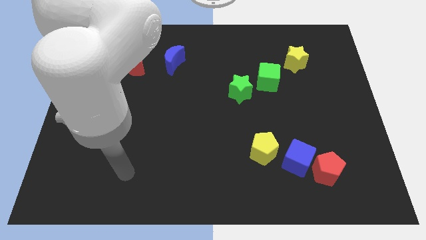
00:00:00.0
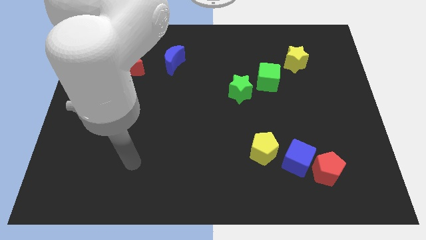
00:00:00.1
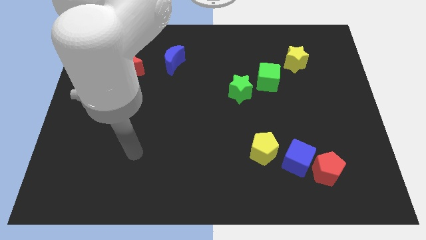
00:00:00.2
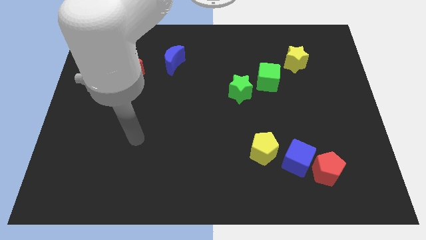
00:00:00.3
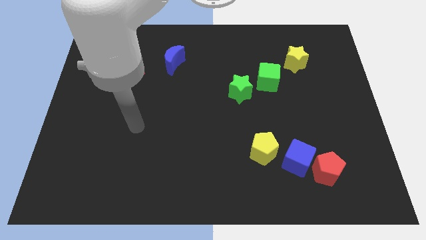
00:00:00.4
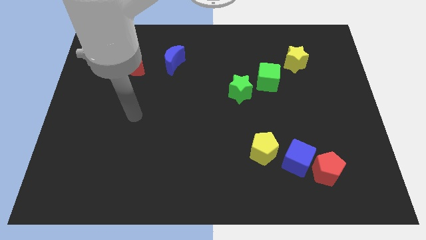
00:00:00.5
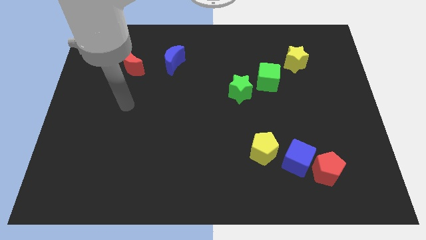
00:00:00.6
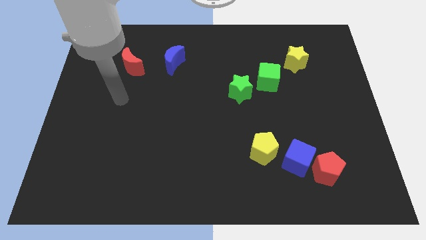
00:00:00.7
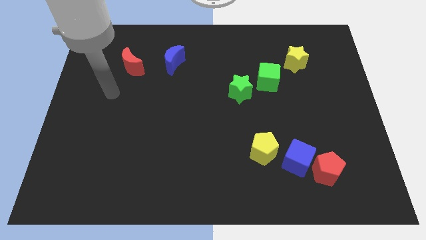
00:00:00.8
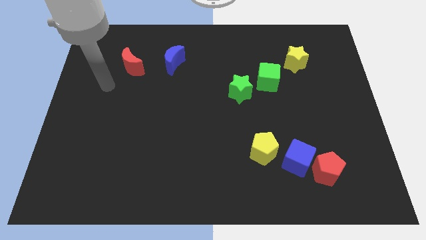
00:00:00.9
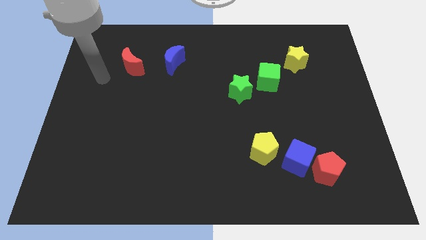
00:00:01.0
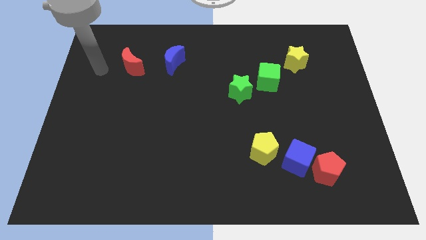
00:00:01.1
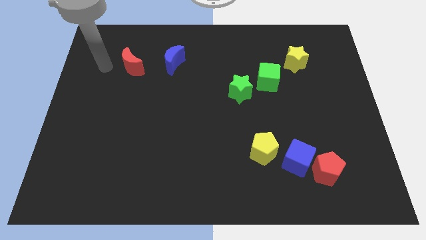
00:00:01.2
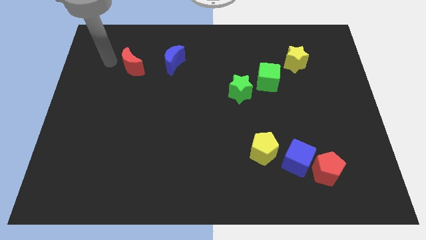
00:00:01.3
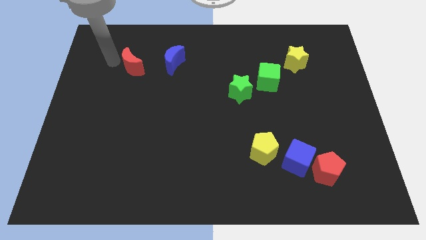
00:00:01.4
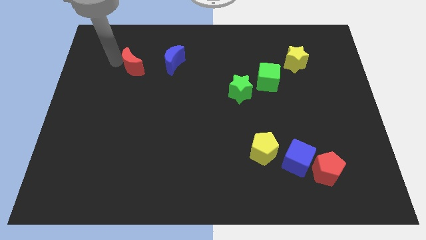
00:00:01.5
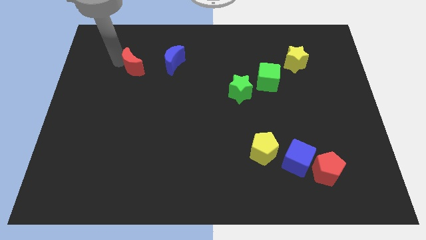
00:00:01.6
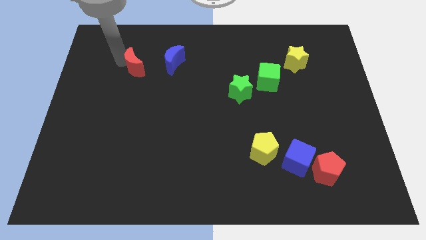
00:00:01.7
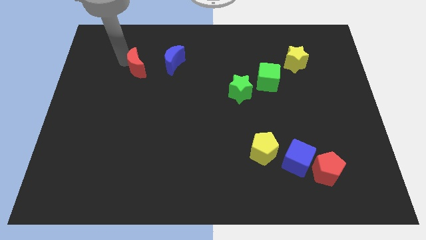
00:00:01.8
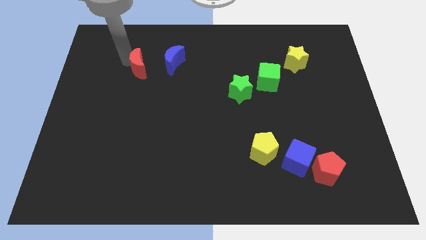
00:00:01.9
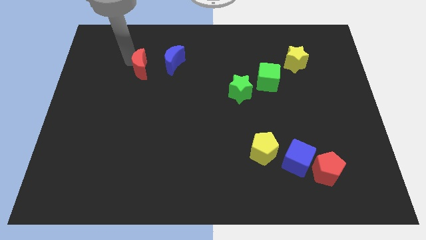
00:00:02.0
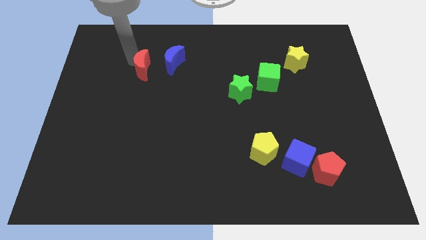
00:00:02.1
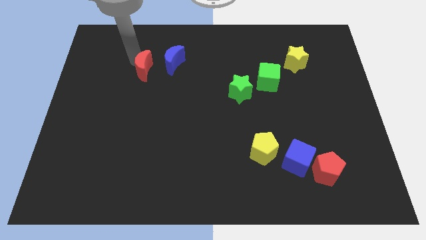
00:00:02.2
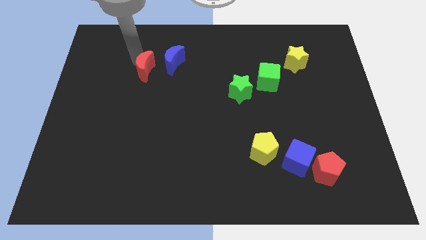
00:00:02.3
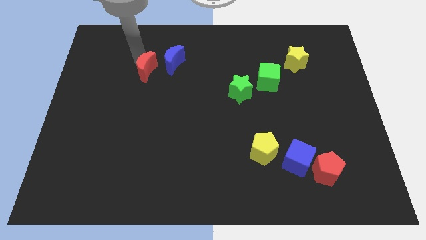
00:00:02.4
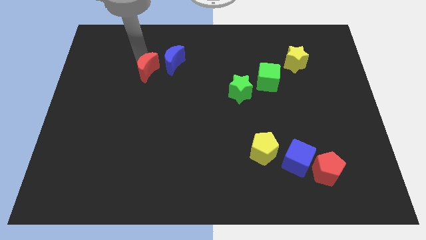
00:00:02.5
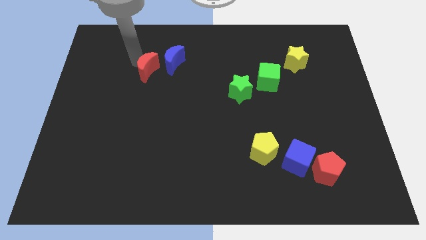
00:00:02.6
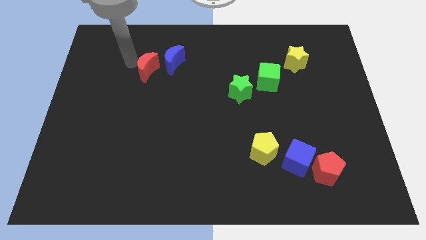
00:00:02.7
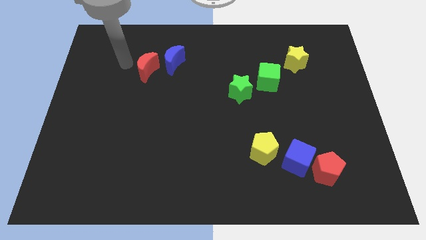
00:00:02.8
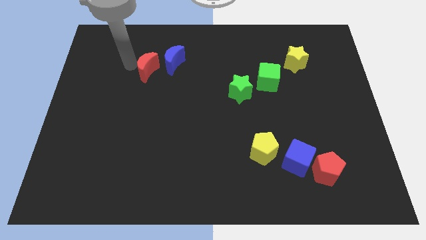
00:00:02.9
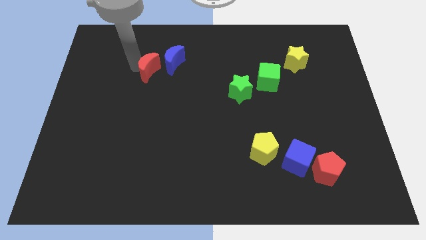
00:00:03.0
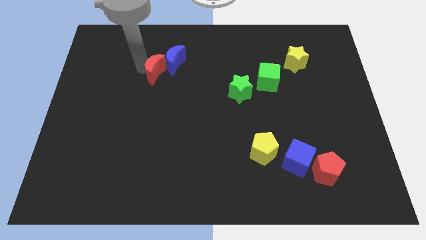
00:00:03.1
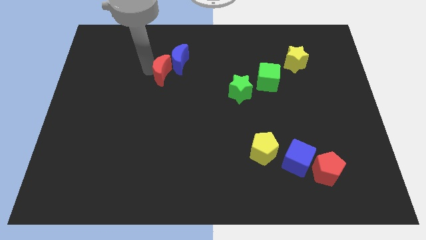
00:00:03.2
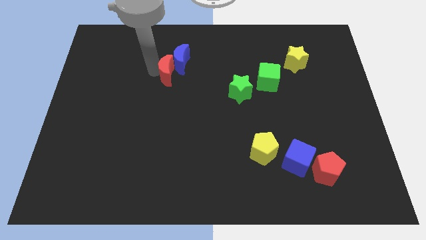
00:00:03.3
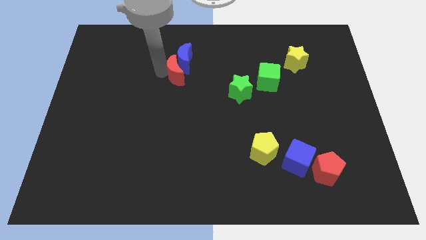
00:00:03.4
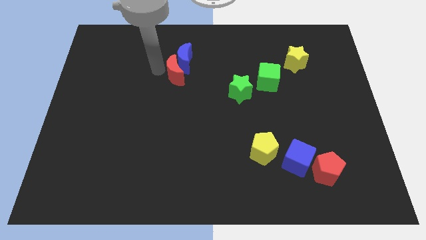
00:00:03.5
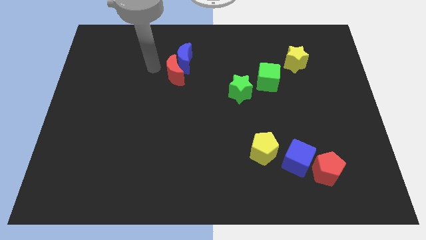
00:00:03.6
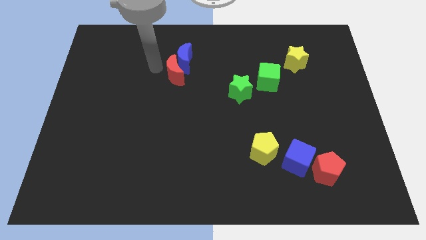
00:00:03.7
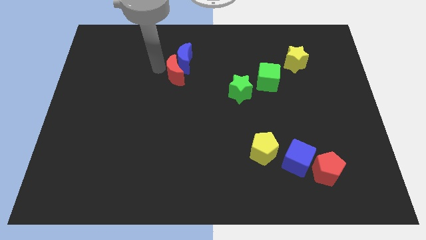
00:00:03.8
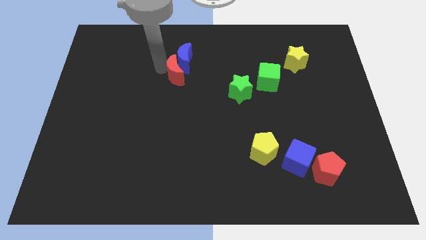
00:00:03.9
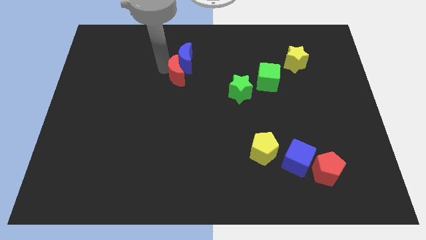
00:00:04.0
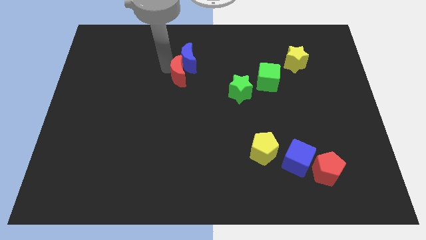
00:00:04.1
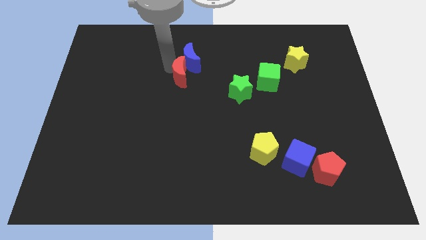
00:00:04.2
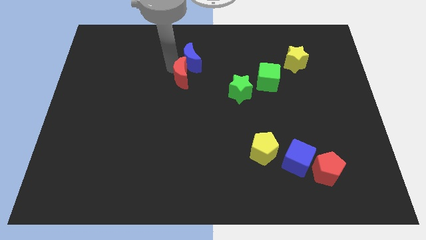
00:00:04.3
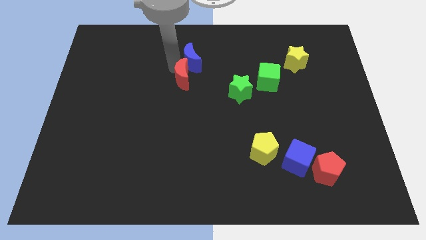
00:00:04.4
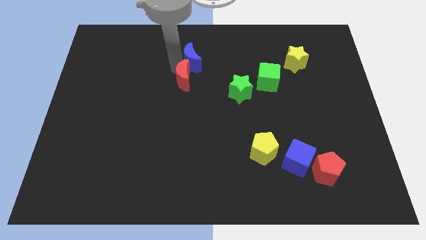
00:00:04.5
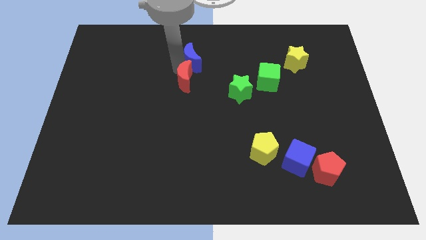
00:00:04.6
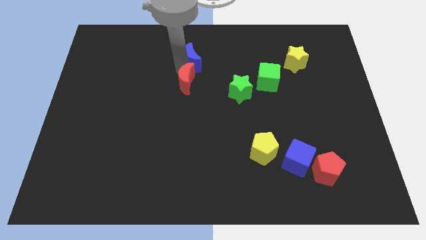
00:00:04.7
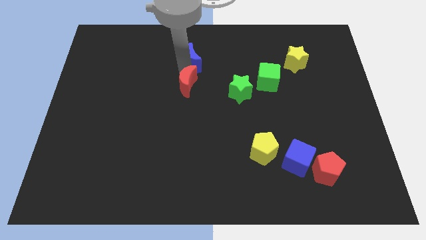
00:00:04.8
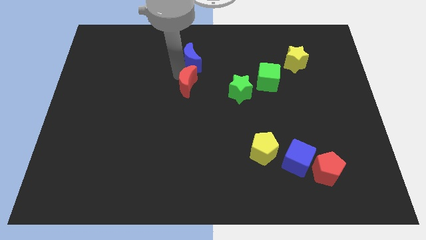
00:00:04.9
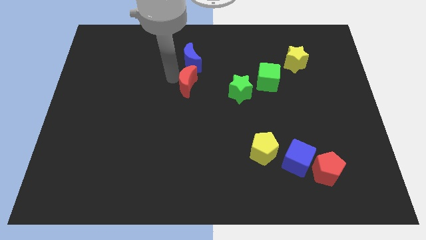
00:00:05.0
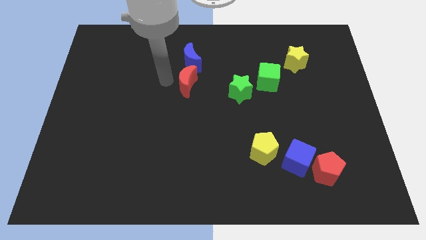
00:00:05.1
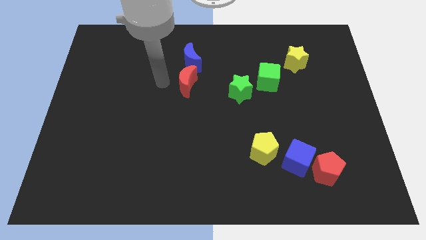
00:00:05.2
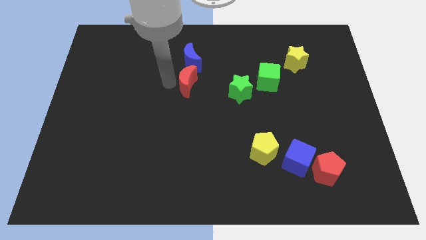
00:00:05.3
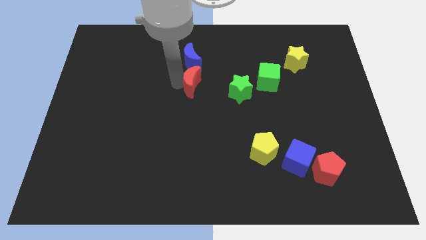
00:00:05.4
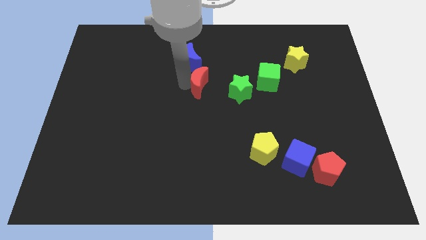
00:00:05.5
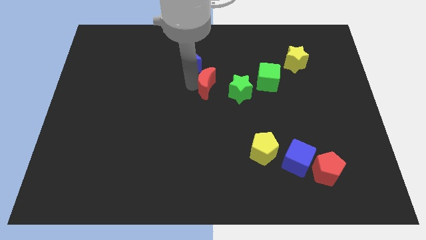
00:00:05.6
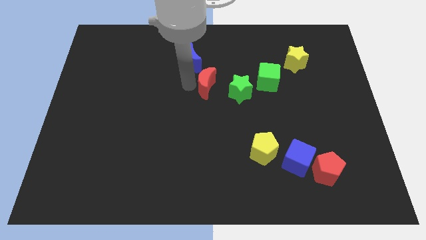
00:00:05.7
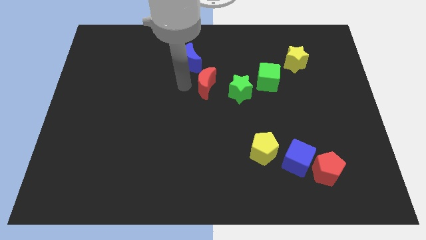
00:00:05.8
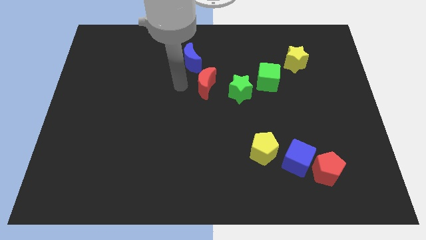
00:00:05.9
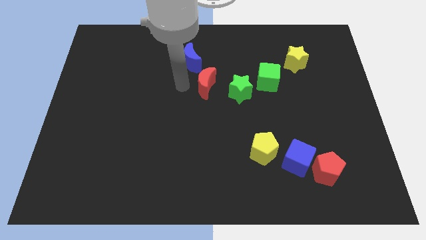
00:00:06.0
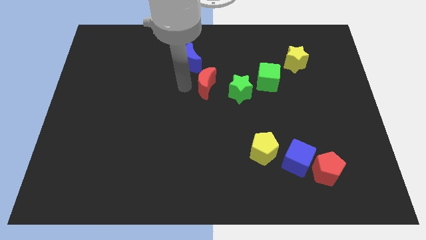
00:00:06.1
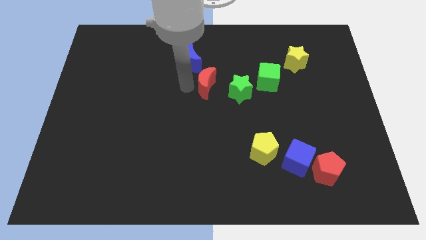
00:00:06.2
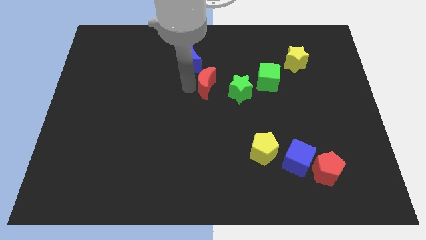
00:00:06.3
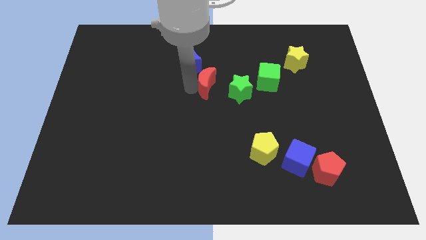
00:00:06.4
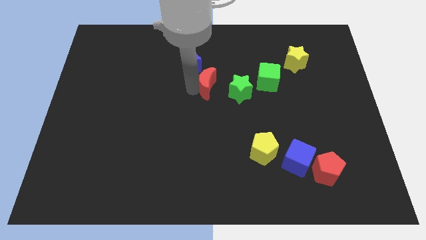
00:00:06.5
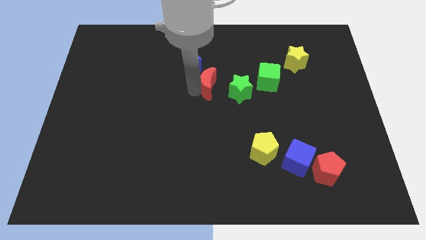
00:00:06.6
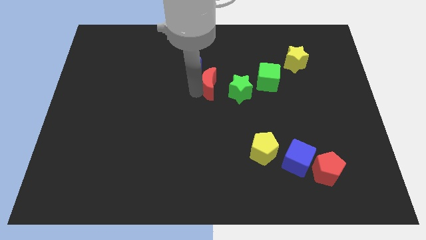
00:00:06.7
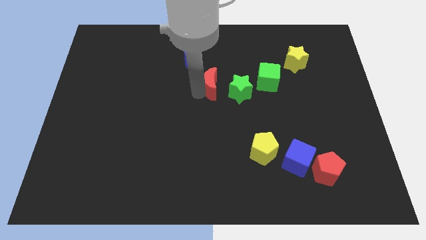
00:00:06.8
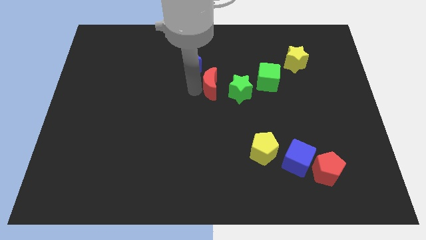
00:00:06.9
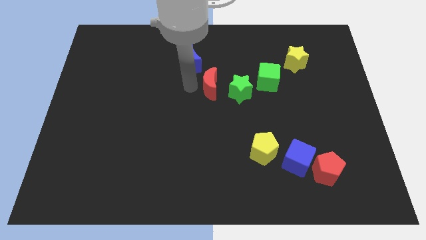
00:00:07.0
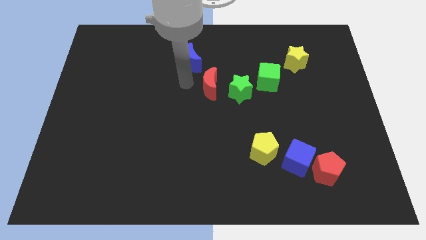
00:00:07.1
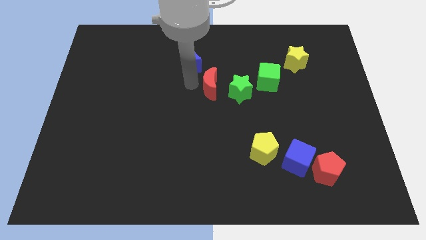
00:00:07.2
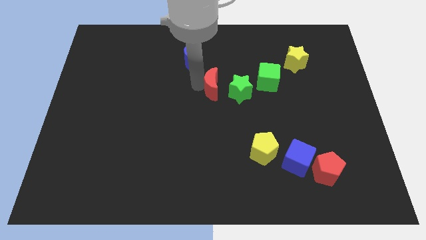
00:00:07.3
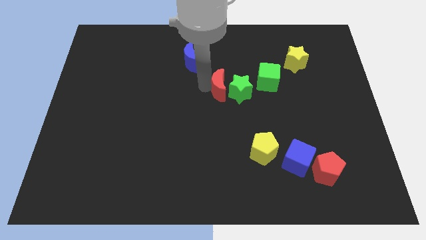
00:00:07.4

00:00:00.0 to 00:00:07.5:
push the red moon towards the green star

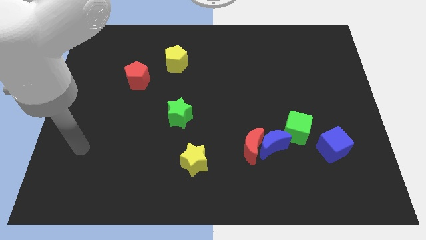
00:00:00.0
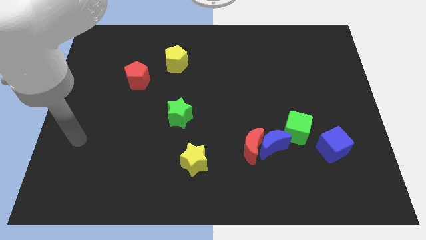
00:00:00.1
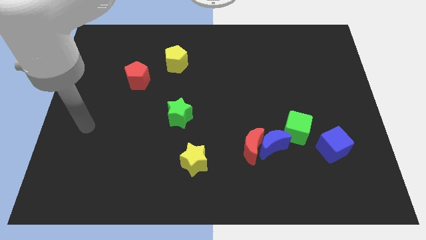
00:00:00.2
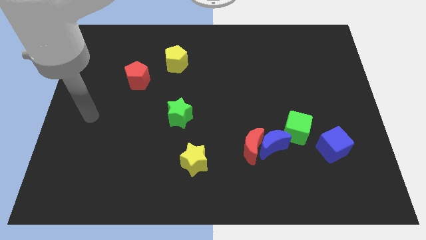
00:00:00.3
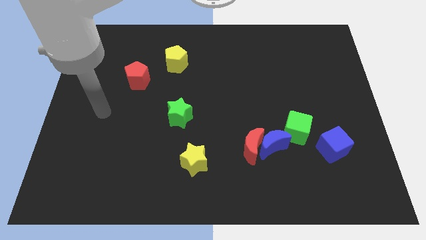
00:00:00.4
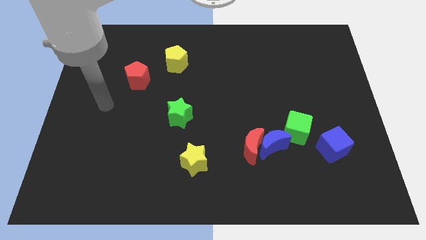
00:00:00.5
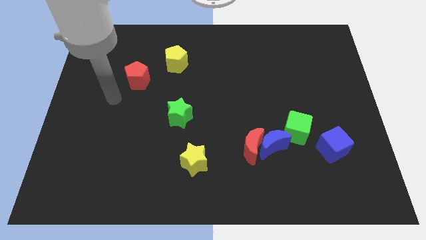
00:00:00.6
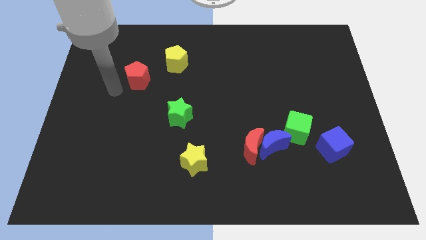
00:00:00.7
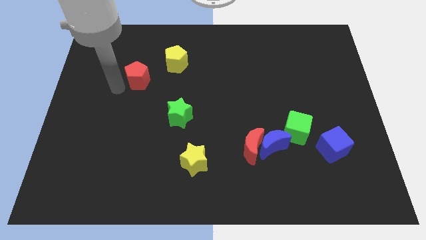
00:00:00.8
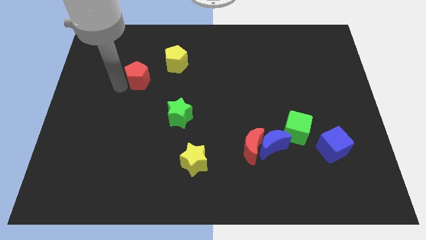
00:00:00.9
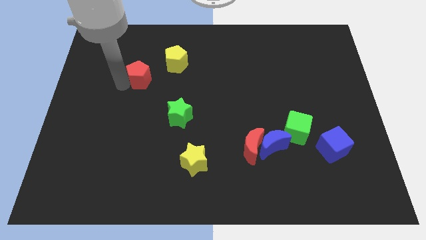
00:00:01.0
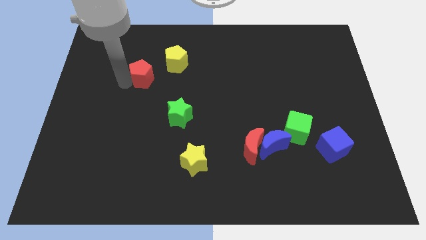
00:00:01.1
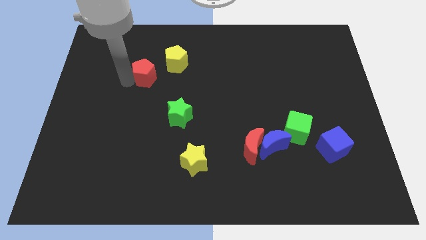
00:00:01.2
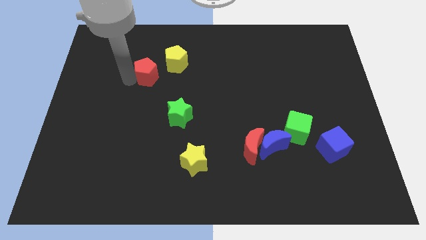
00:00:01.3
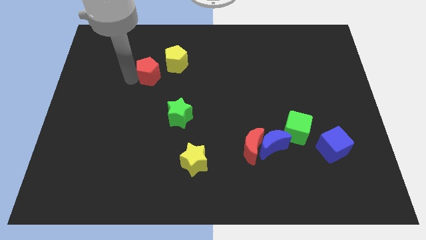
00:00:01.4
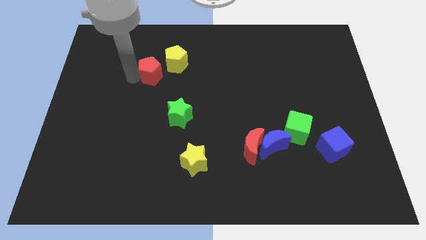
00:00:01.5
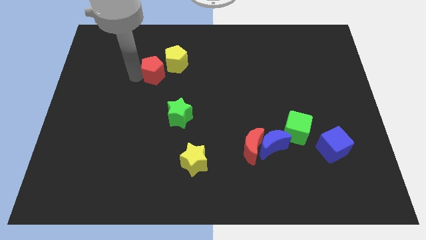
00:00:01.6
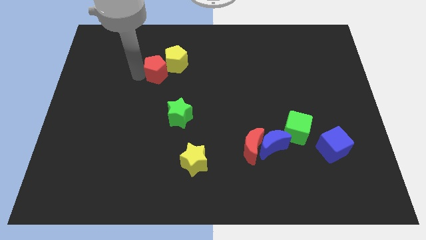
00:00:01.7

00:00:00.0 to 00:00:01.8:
push the red pentagon to the yellow pentagon
